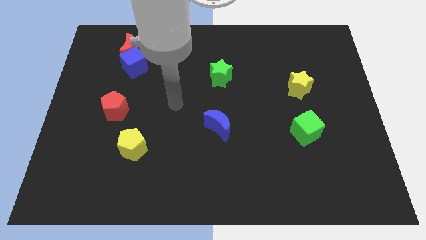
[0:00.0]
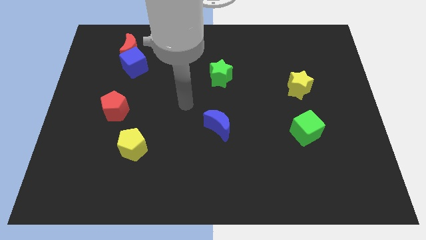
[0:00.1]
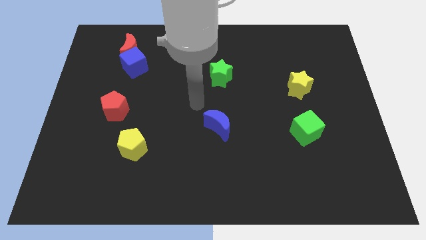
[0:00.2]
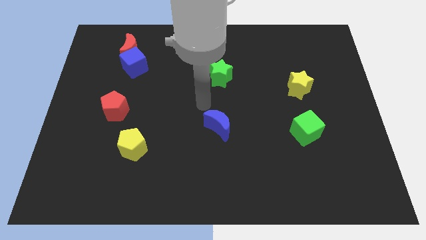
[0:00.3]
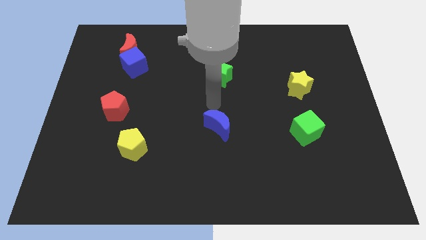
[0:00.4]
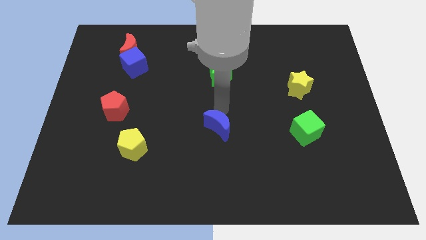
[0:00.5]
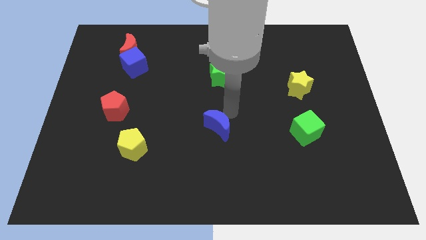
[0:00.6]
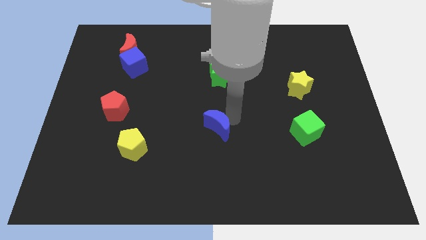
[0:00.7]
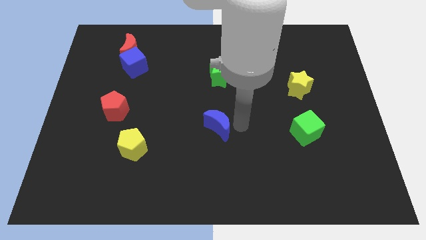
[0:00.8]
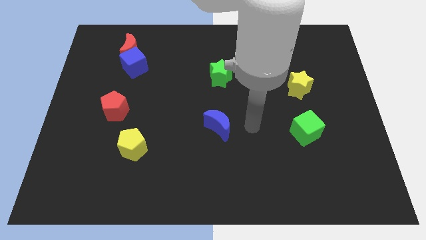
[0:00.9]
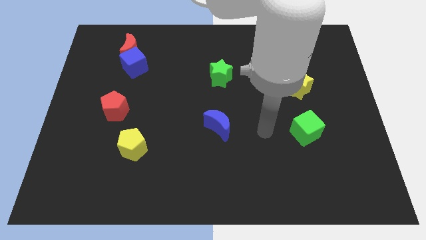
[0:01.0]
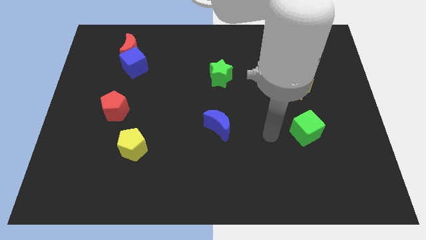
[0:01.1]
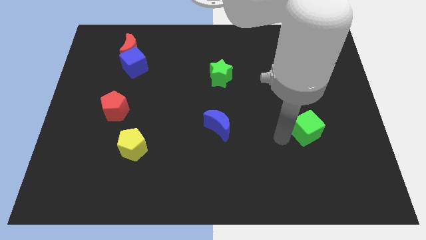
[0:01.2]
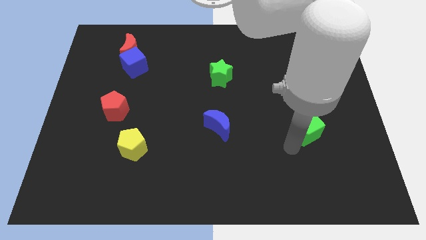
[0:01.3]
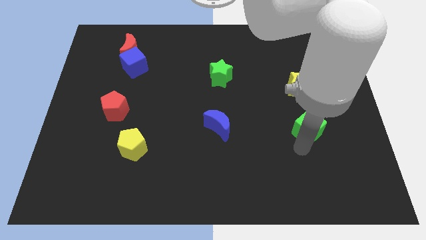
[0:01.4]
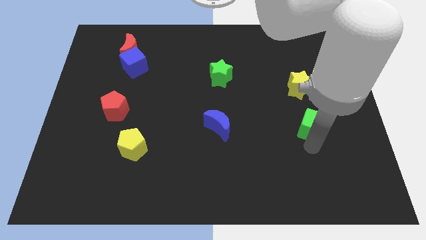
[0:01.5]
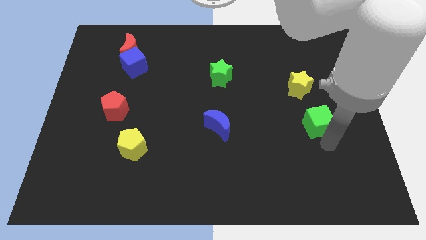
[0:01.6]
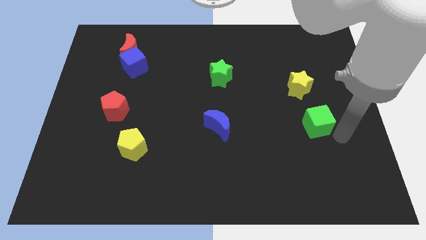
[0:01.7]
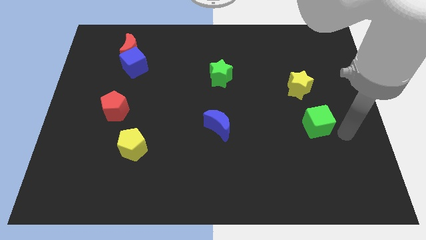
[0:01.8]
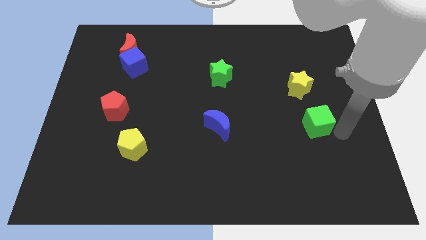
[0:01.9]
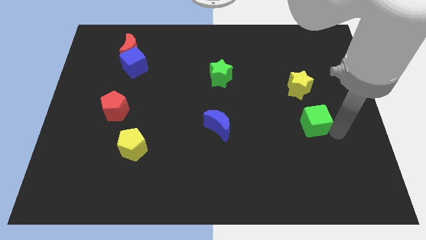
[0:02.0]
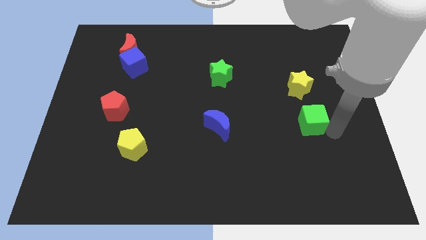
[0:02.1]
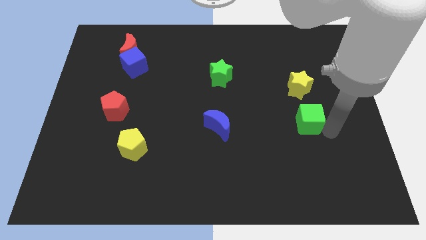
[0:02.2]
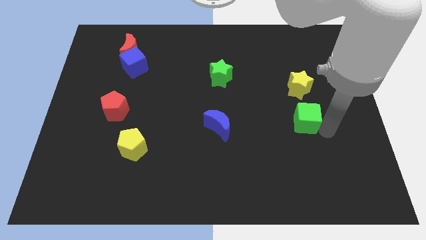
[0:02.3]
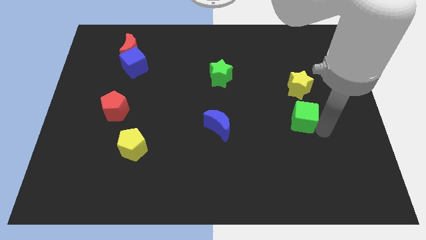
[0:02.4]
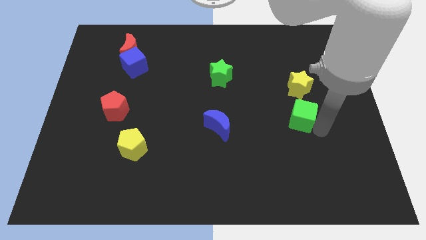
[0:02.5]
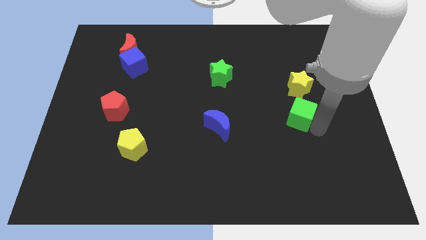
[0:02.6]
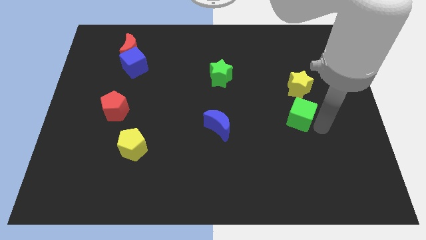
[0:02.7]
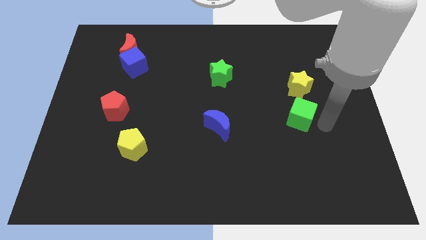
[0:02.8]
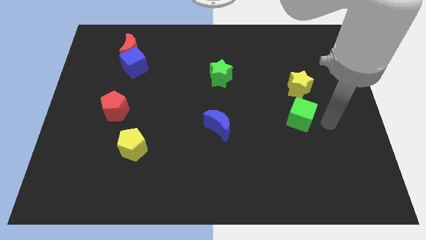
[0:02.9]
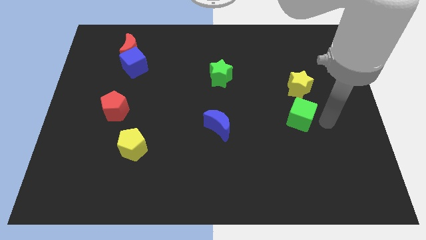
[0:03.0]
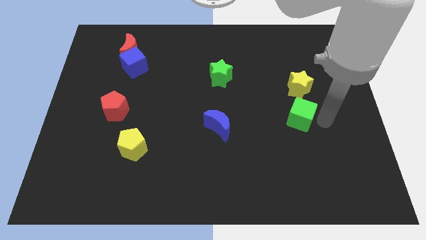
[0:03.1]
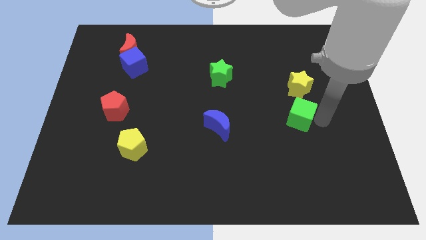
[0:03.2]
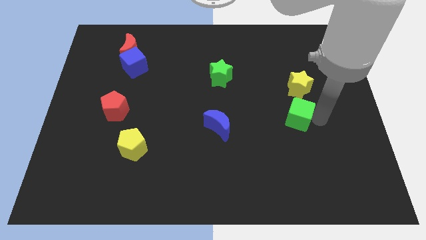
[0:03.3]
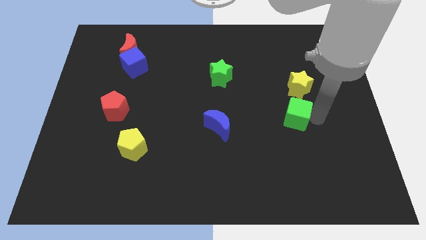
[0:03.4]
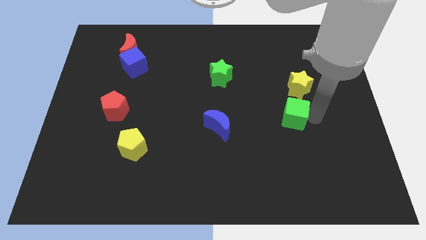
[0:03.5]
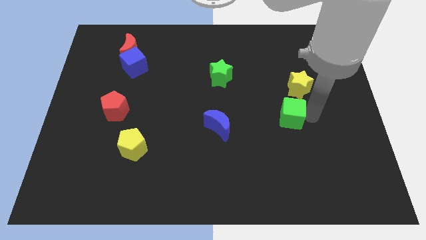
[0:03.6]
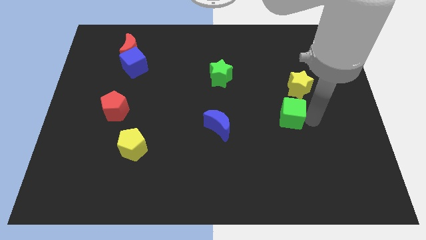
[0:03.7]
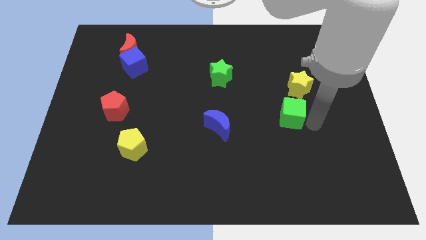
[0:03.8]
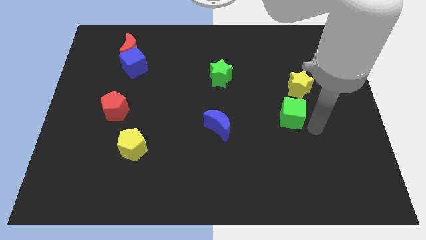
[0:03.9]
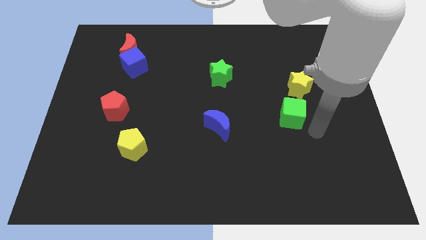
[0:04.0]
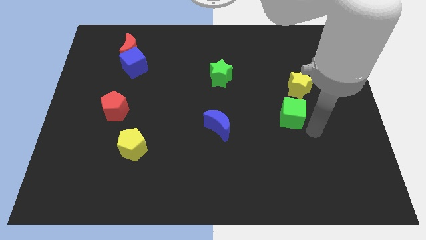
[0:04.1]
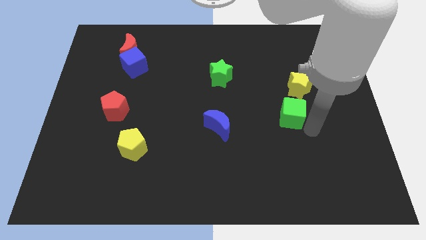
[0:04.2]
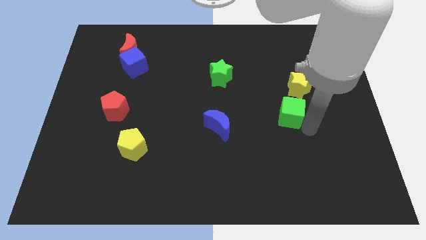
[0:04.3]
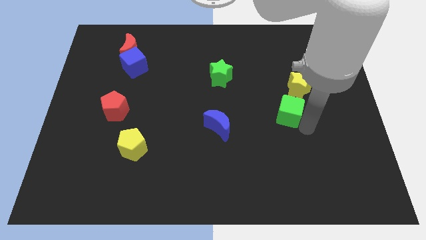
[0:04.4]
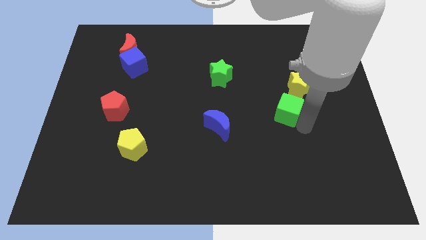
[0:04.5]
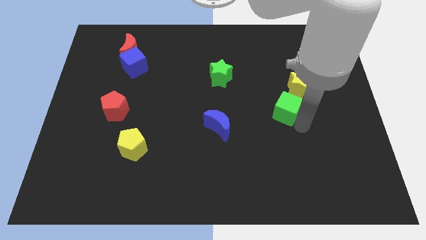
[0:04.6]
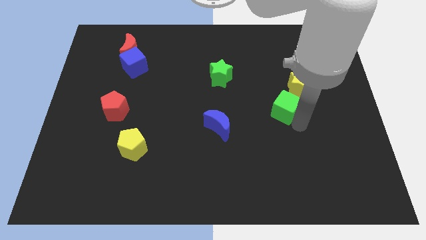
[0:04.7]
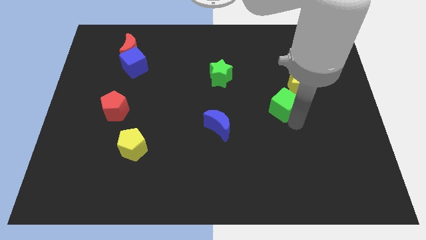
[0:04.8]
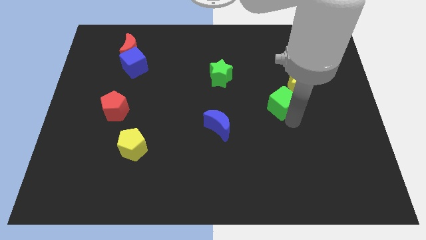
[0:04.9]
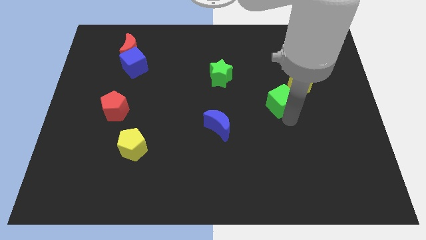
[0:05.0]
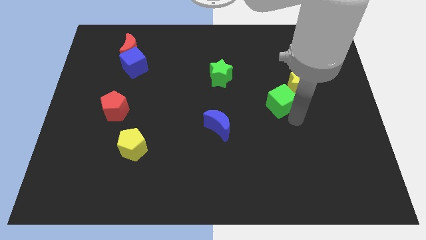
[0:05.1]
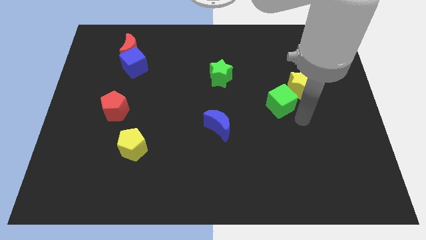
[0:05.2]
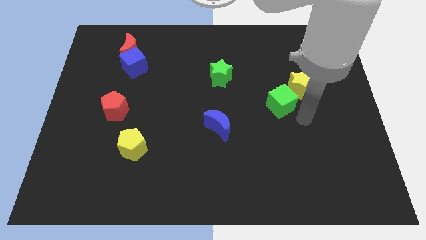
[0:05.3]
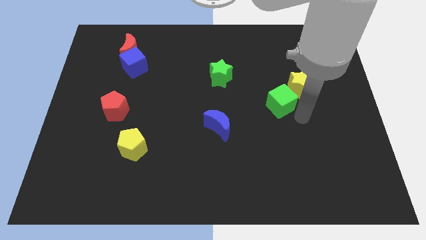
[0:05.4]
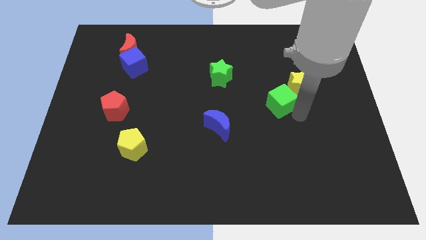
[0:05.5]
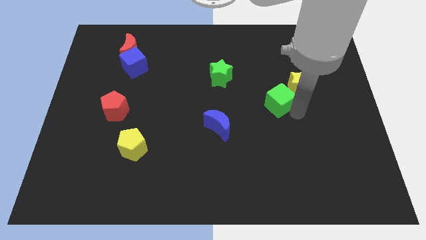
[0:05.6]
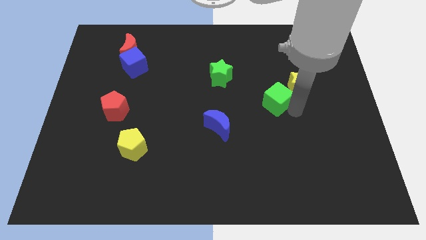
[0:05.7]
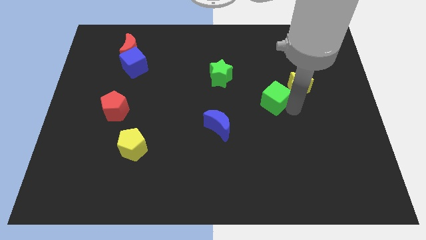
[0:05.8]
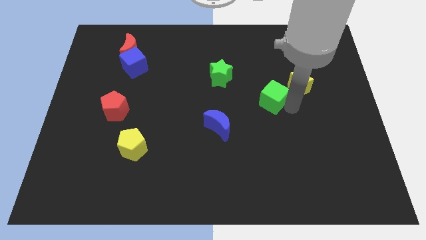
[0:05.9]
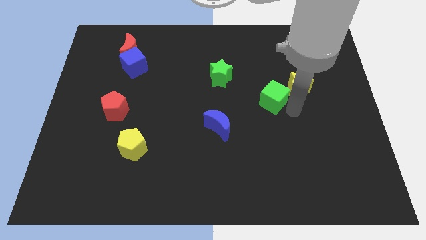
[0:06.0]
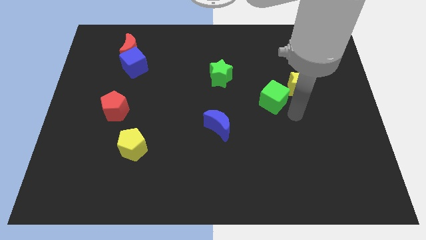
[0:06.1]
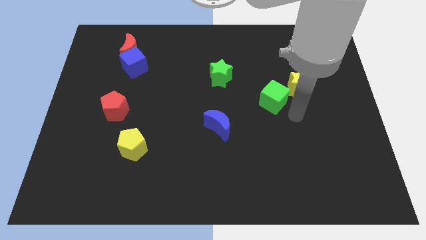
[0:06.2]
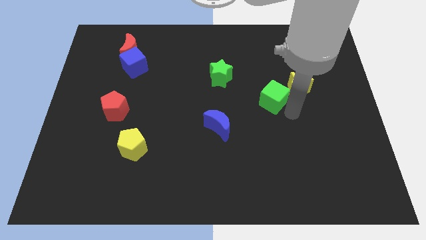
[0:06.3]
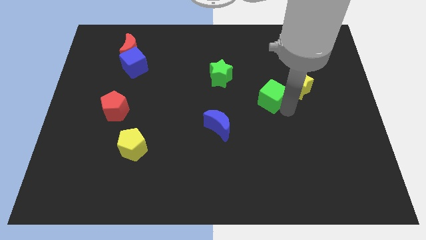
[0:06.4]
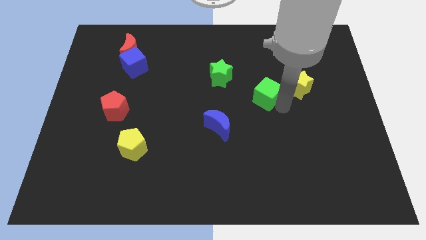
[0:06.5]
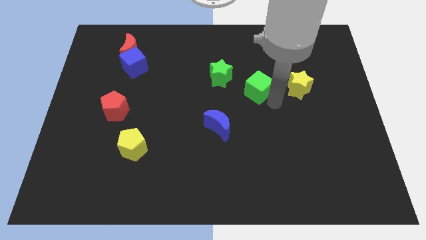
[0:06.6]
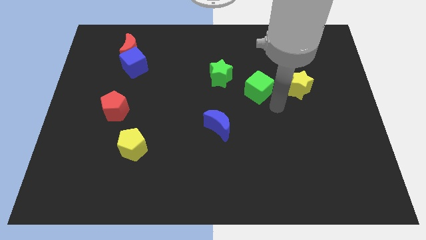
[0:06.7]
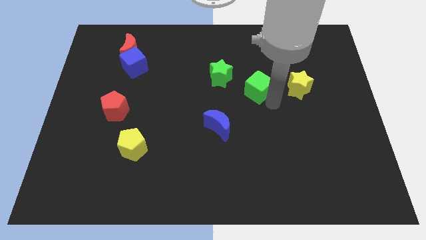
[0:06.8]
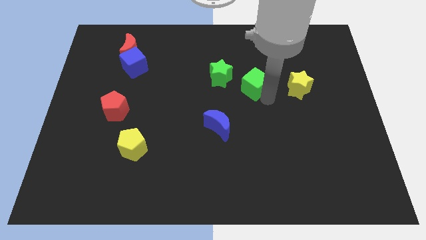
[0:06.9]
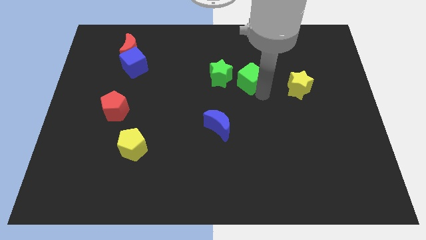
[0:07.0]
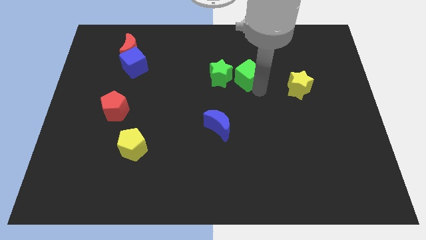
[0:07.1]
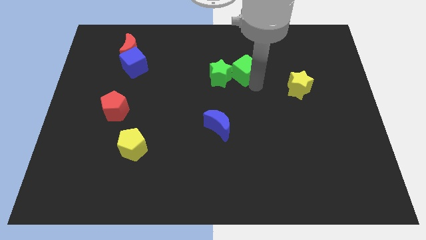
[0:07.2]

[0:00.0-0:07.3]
slide the green cube upwards and then left

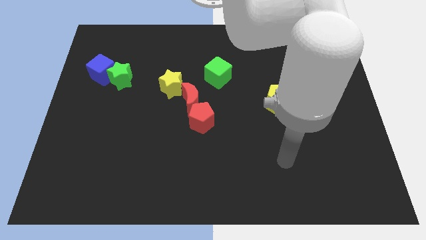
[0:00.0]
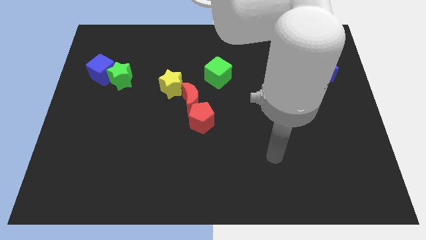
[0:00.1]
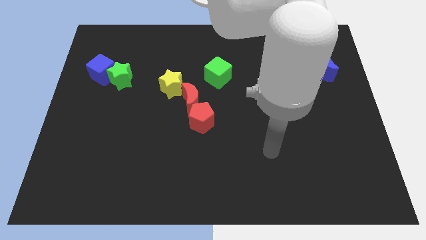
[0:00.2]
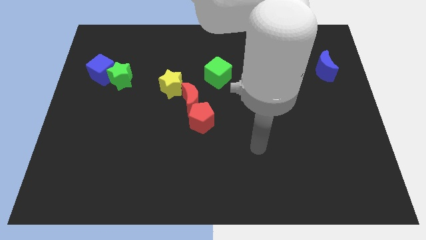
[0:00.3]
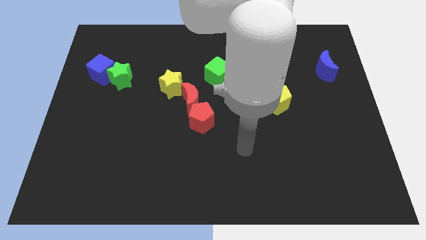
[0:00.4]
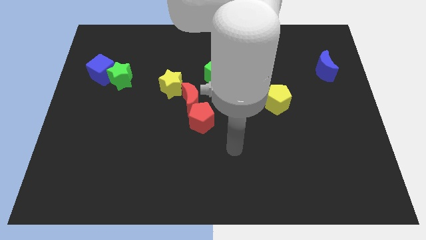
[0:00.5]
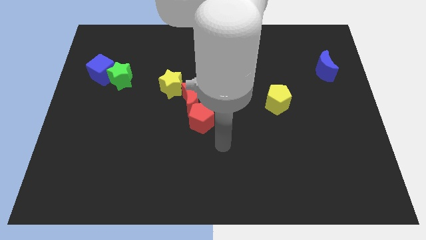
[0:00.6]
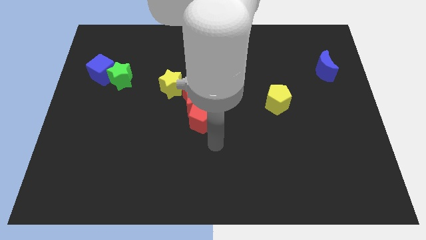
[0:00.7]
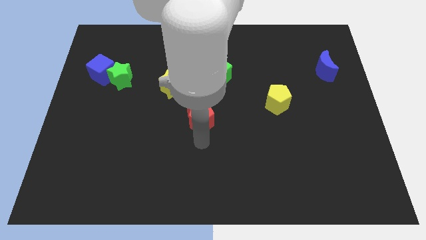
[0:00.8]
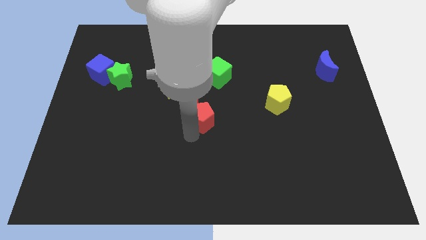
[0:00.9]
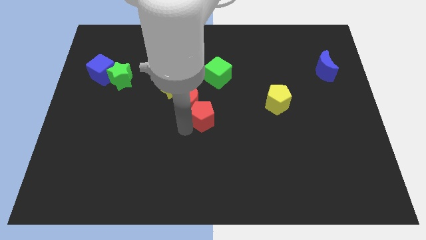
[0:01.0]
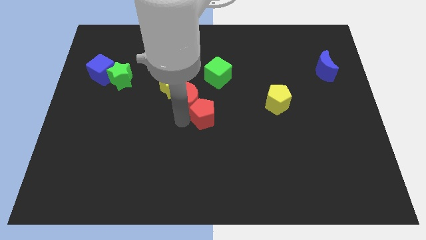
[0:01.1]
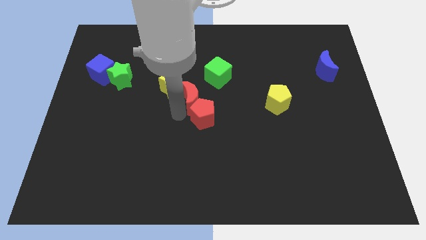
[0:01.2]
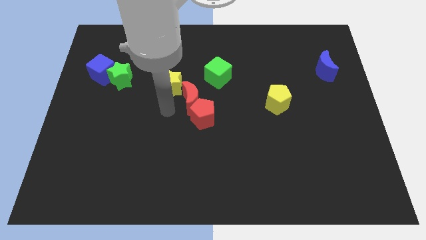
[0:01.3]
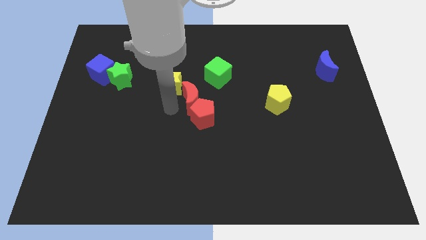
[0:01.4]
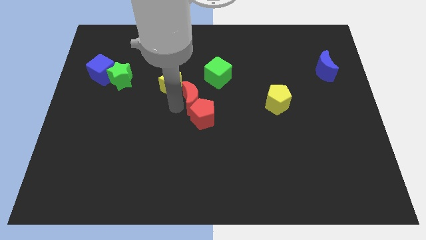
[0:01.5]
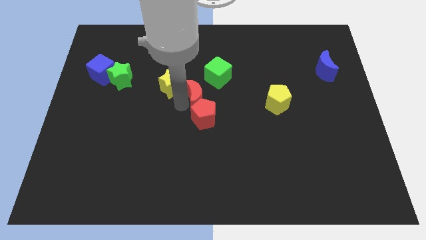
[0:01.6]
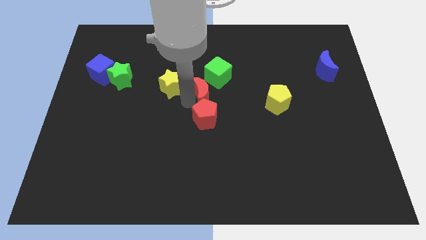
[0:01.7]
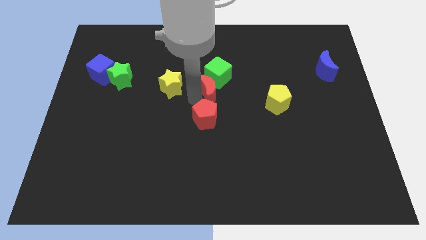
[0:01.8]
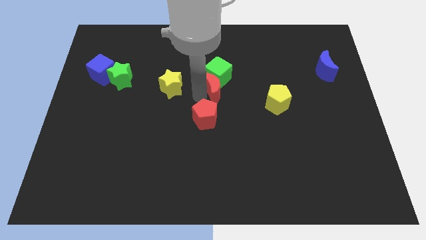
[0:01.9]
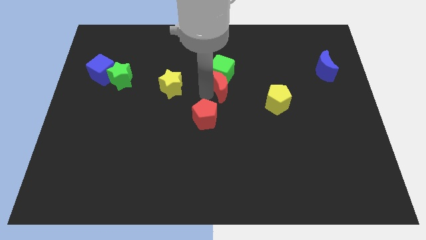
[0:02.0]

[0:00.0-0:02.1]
slightly push the red moon up and right diagonally
